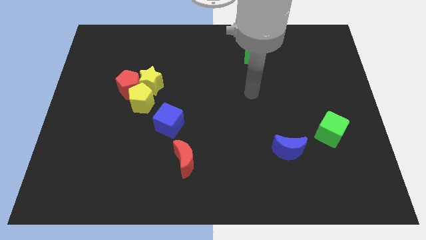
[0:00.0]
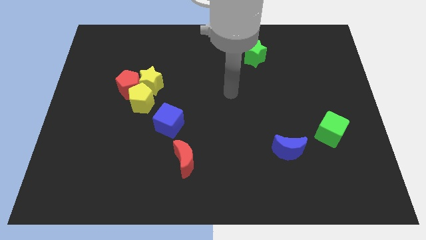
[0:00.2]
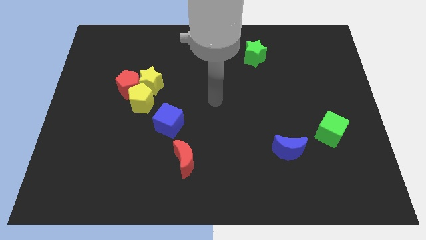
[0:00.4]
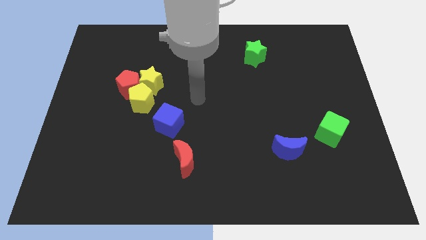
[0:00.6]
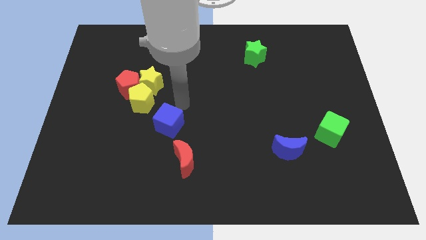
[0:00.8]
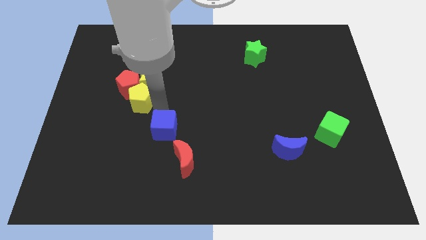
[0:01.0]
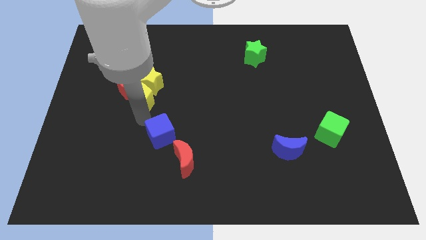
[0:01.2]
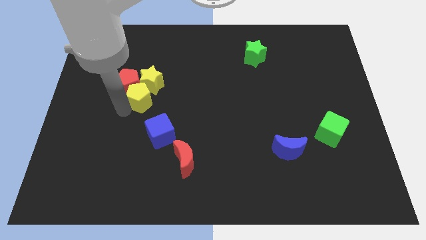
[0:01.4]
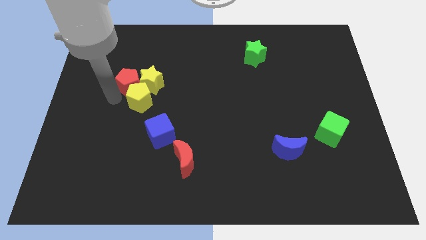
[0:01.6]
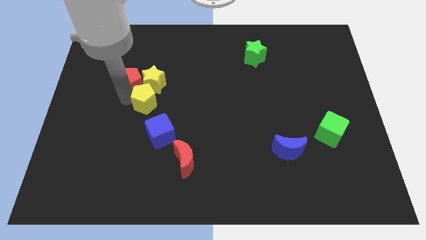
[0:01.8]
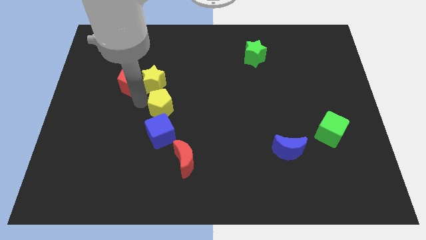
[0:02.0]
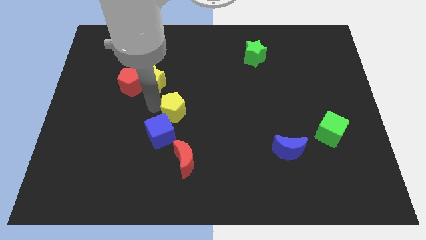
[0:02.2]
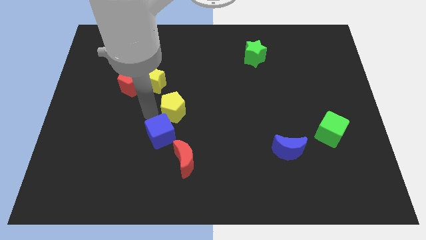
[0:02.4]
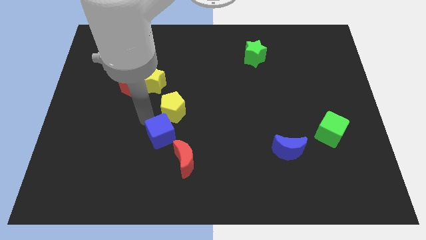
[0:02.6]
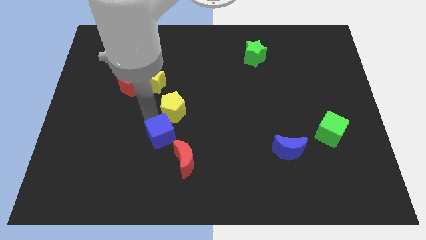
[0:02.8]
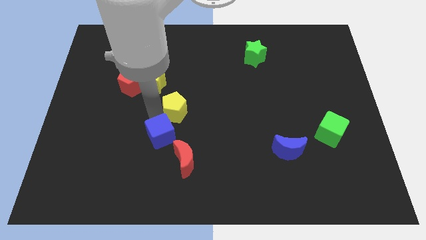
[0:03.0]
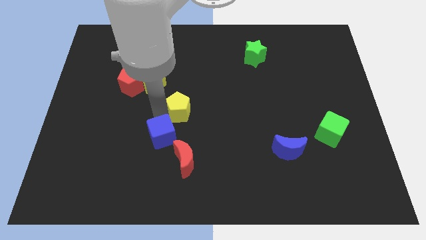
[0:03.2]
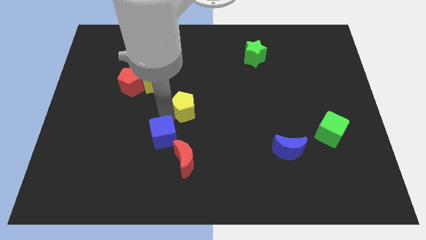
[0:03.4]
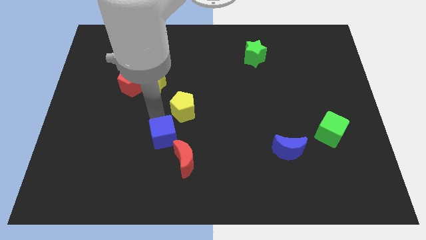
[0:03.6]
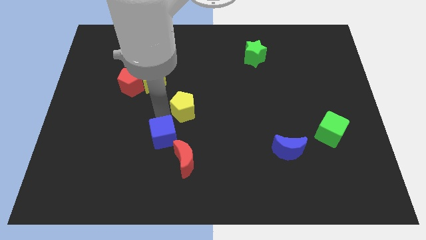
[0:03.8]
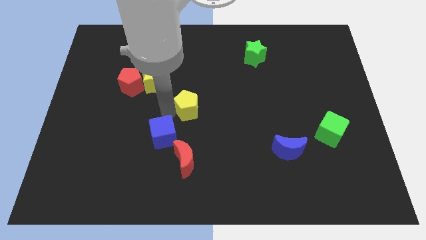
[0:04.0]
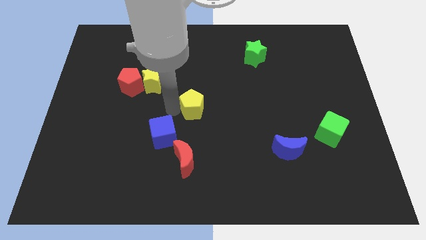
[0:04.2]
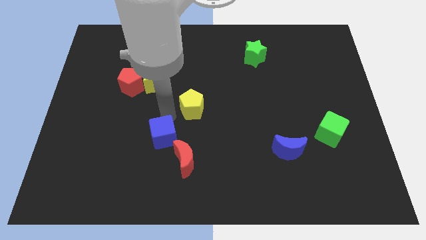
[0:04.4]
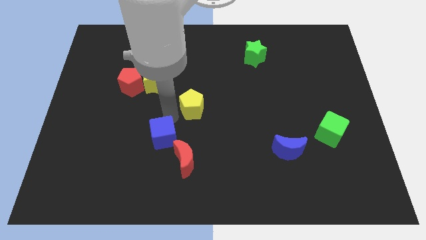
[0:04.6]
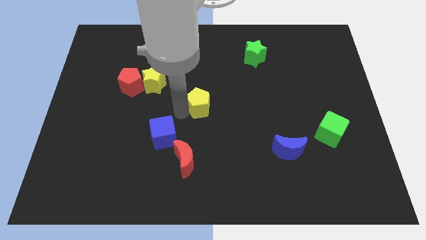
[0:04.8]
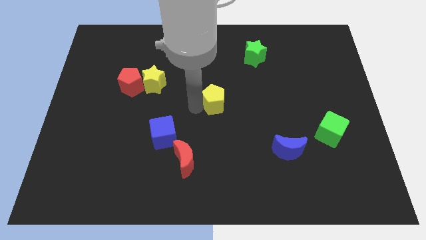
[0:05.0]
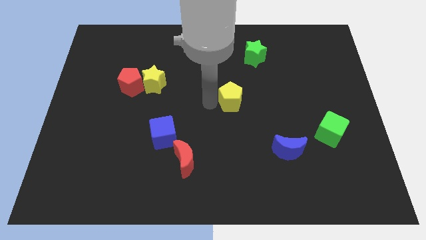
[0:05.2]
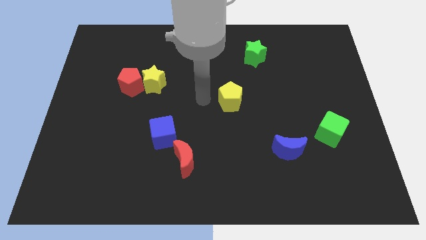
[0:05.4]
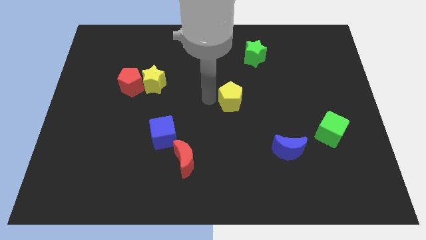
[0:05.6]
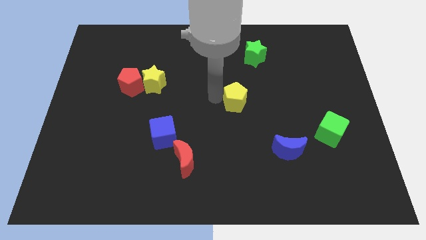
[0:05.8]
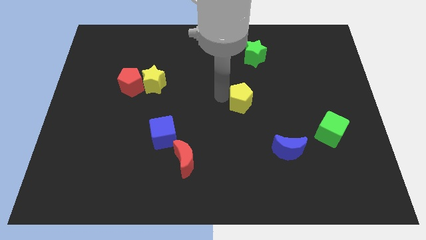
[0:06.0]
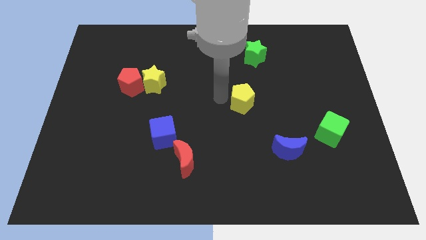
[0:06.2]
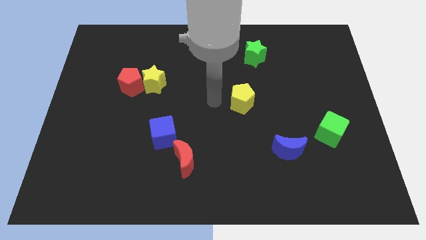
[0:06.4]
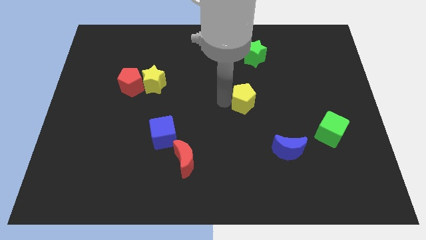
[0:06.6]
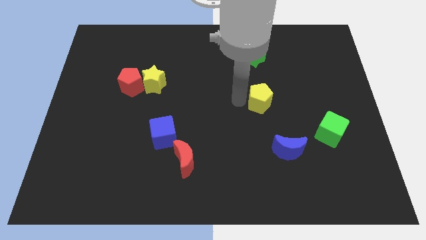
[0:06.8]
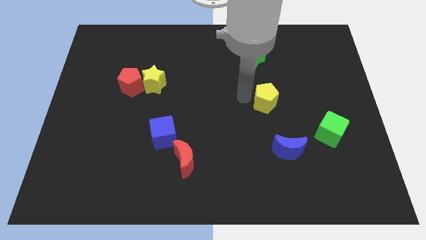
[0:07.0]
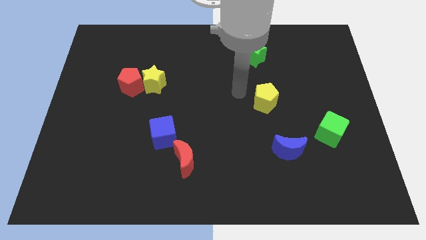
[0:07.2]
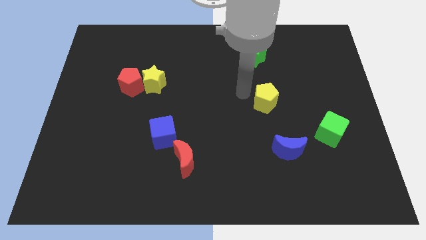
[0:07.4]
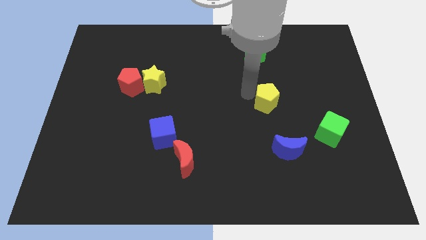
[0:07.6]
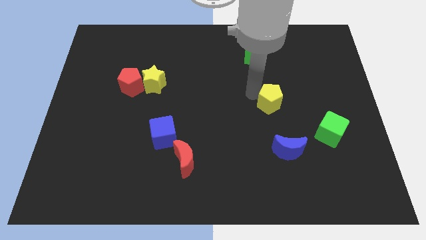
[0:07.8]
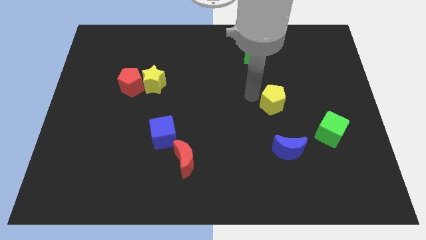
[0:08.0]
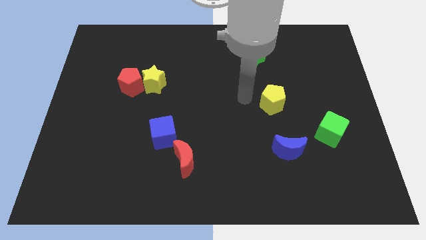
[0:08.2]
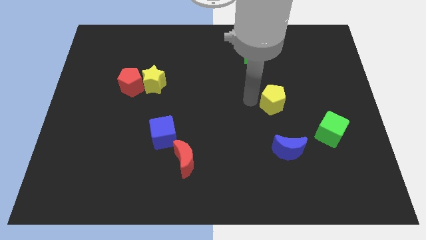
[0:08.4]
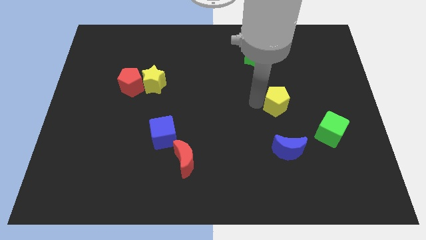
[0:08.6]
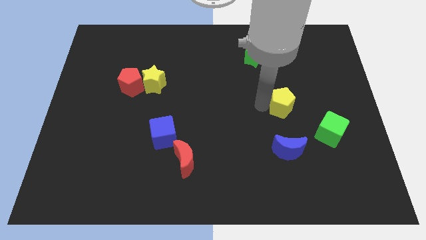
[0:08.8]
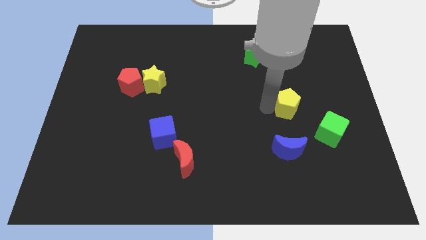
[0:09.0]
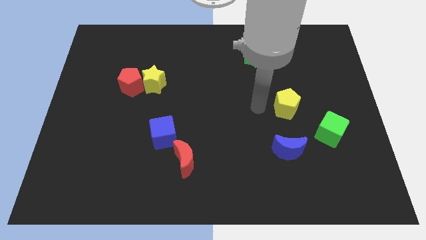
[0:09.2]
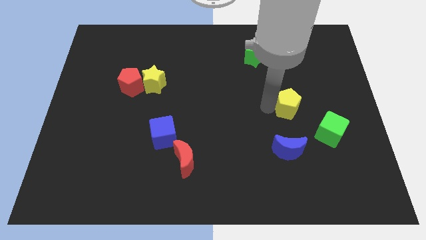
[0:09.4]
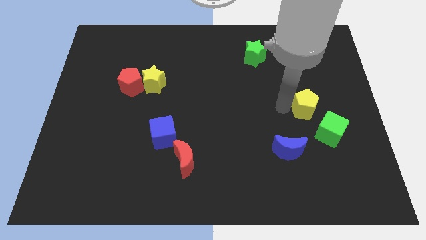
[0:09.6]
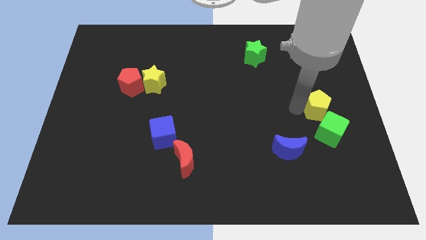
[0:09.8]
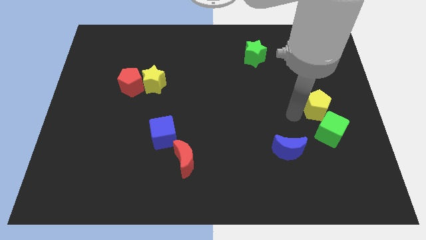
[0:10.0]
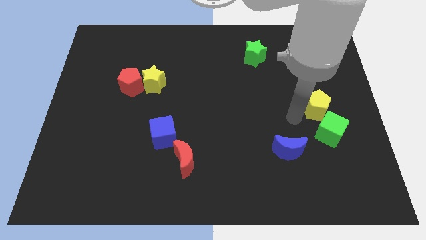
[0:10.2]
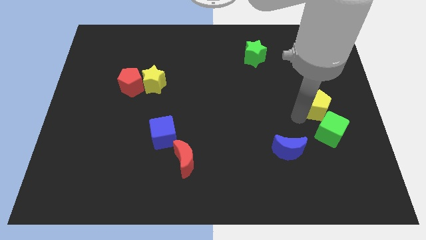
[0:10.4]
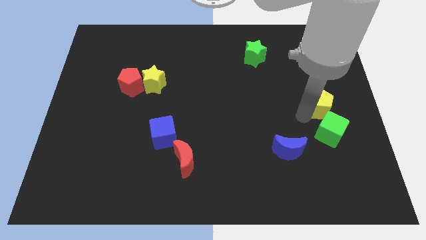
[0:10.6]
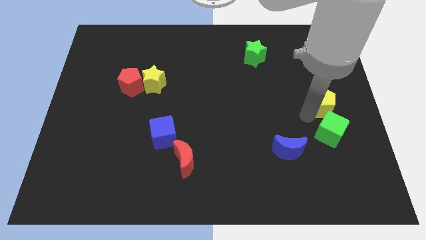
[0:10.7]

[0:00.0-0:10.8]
push the yellow pentagon to the right side
